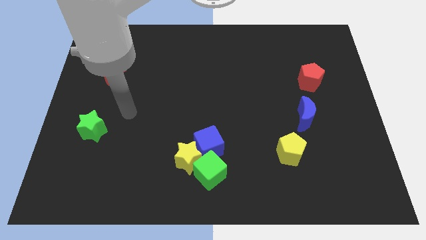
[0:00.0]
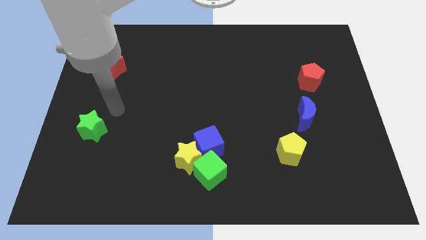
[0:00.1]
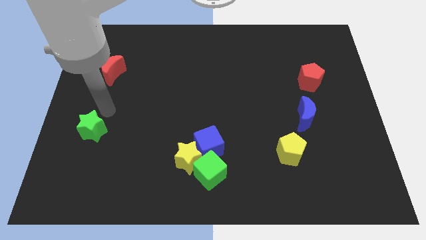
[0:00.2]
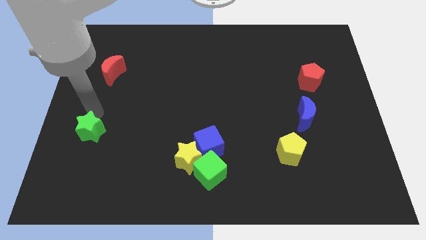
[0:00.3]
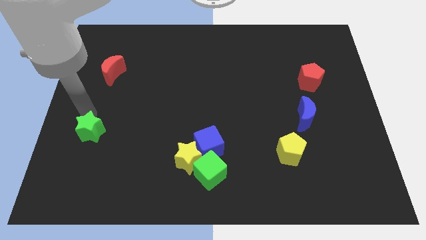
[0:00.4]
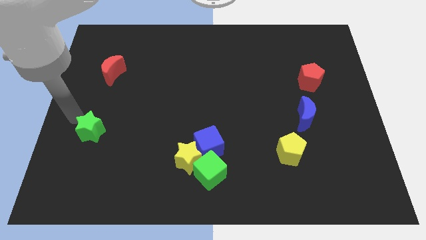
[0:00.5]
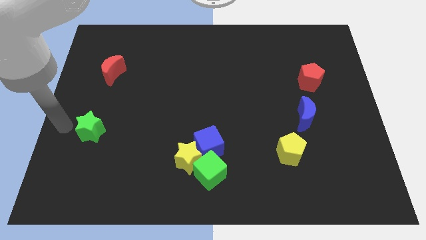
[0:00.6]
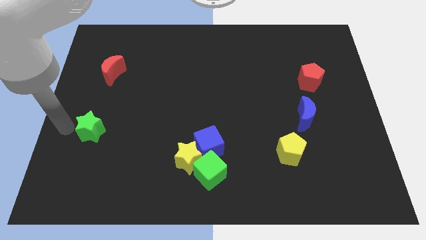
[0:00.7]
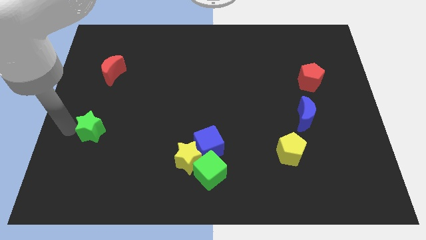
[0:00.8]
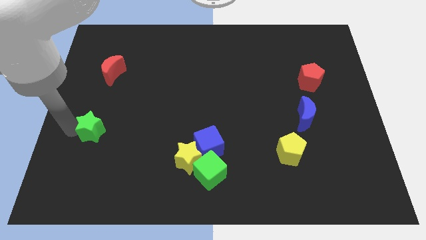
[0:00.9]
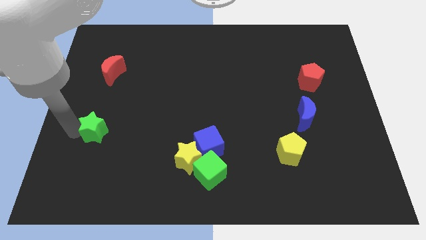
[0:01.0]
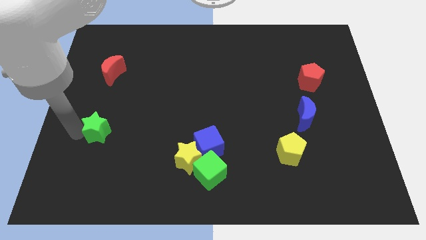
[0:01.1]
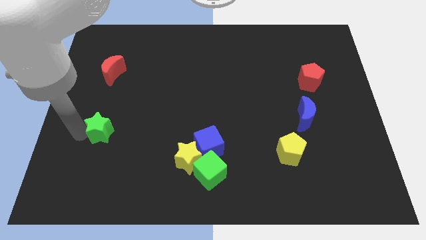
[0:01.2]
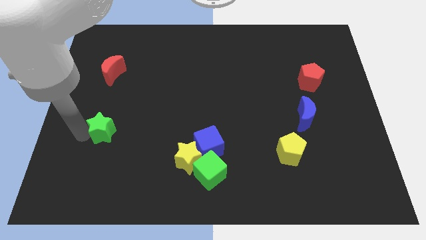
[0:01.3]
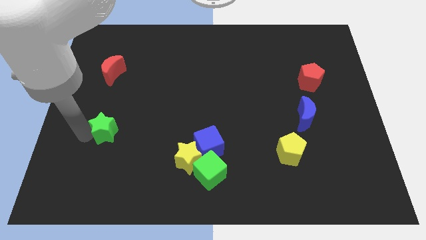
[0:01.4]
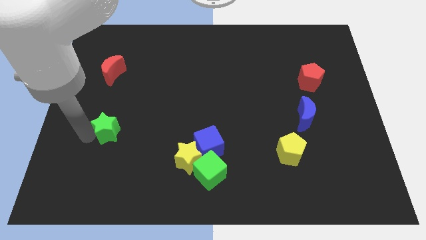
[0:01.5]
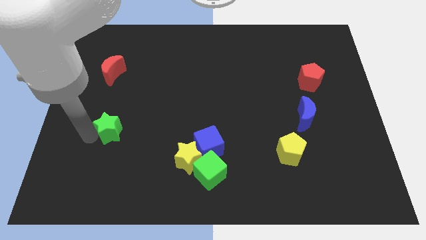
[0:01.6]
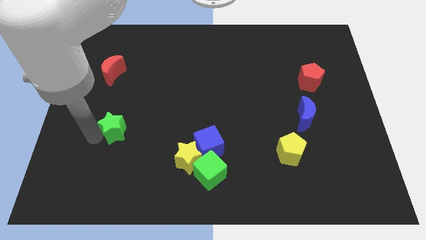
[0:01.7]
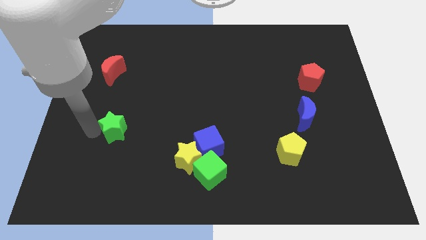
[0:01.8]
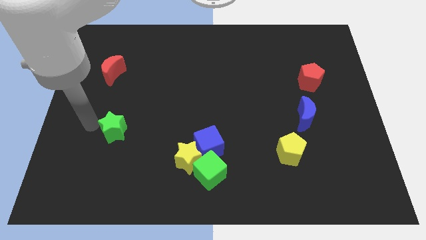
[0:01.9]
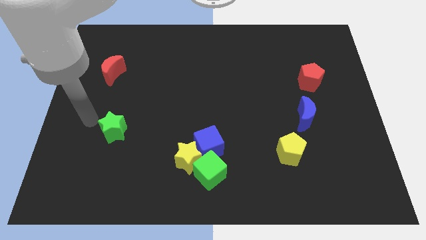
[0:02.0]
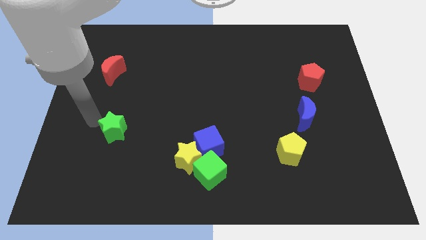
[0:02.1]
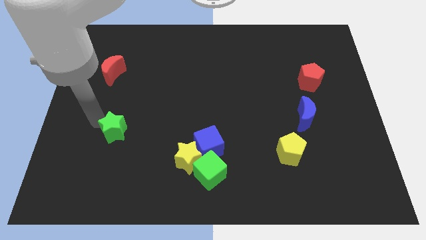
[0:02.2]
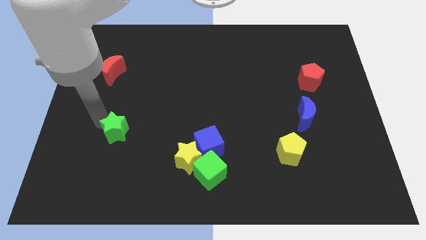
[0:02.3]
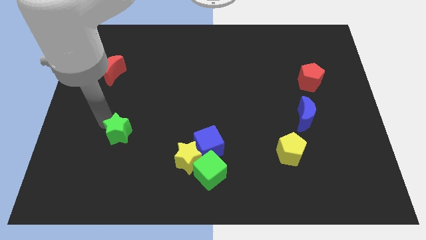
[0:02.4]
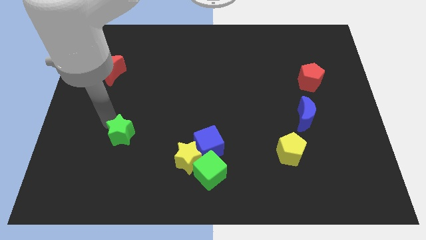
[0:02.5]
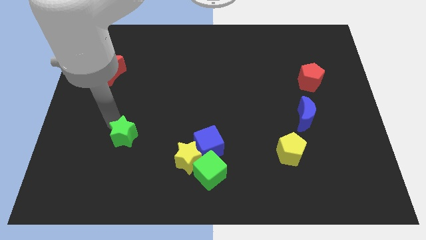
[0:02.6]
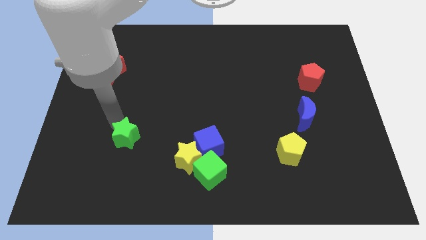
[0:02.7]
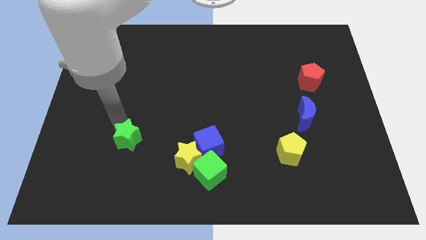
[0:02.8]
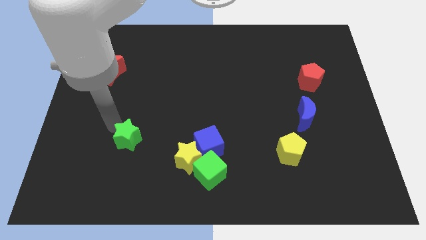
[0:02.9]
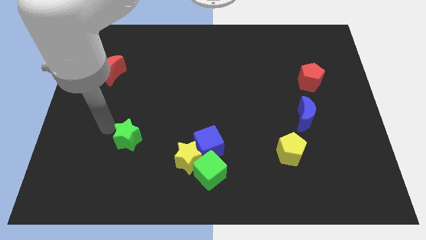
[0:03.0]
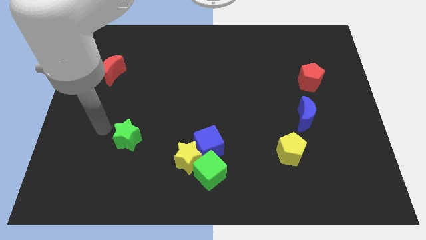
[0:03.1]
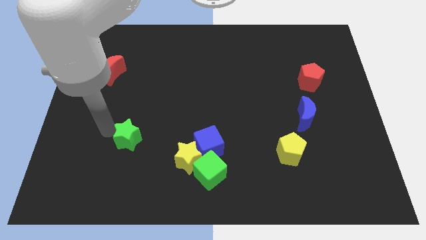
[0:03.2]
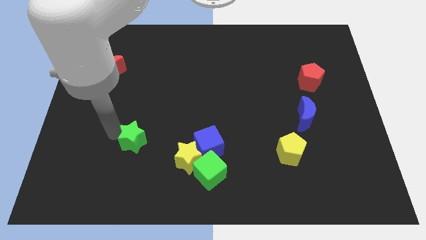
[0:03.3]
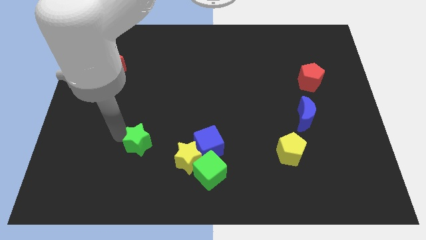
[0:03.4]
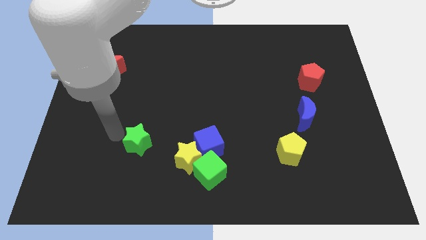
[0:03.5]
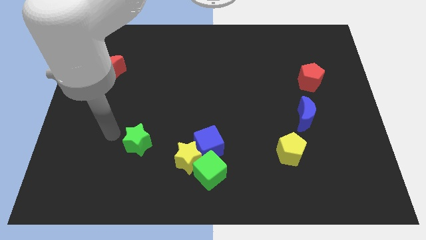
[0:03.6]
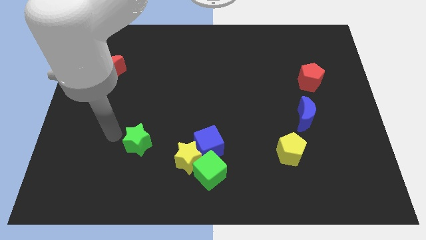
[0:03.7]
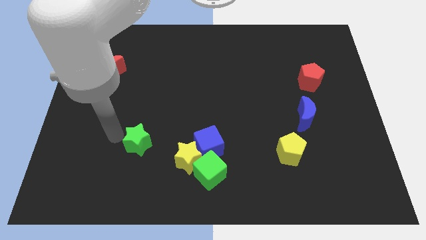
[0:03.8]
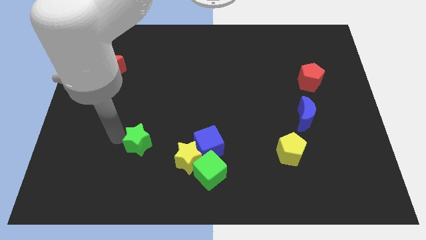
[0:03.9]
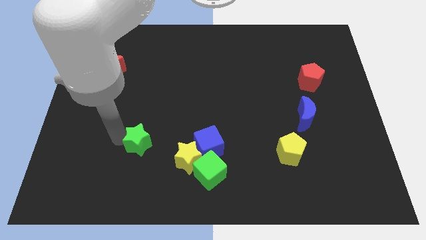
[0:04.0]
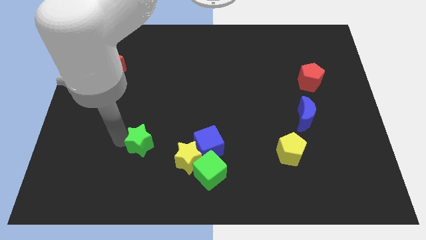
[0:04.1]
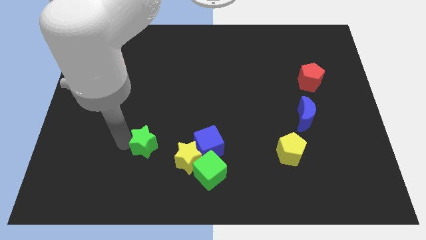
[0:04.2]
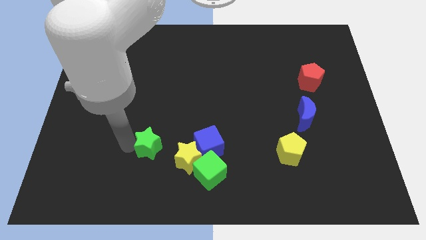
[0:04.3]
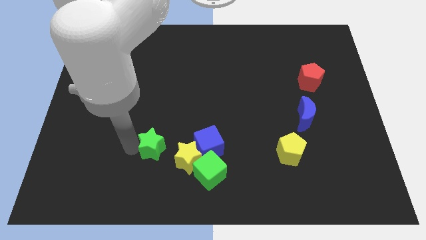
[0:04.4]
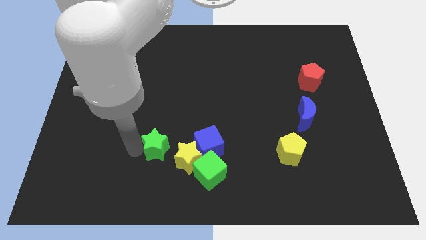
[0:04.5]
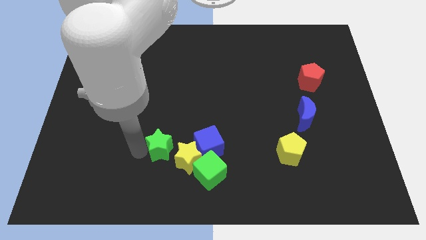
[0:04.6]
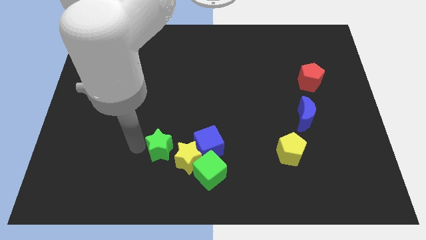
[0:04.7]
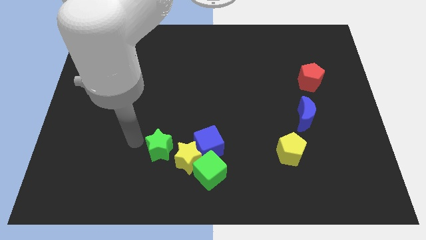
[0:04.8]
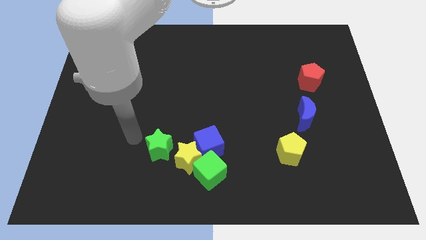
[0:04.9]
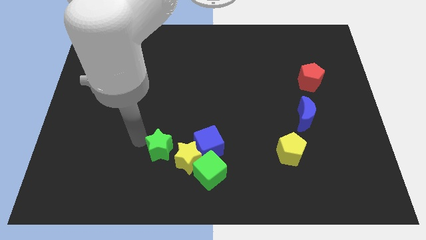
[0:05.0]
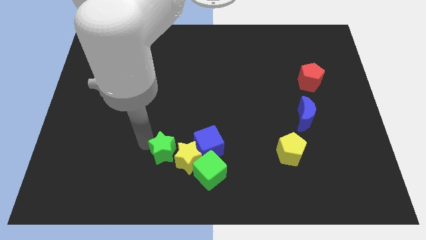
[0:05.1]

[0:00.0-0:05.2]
slide the green star towards the yellow star

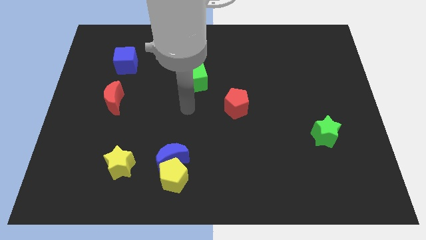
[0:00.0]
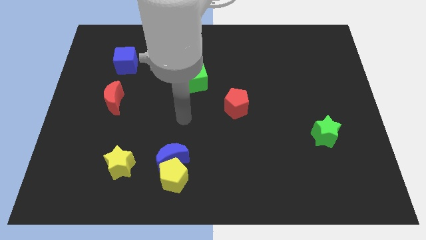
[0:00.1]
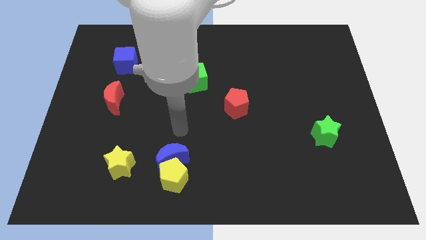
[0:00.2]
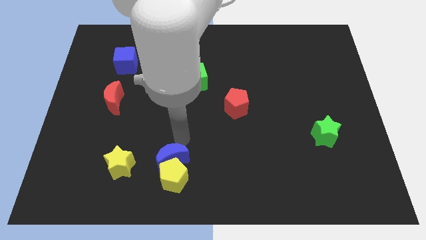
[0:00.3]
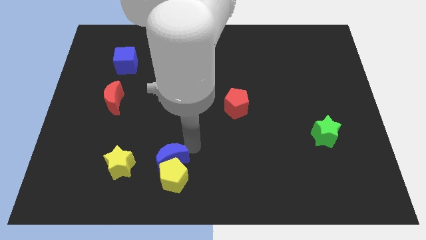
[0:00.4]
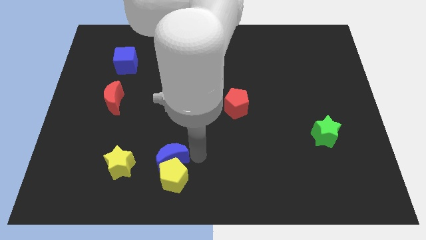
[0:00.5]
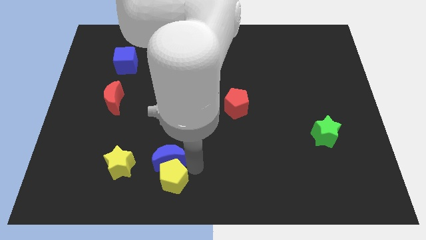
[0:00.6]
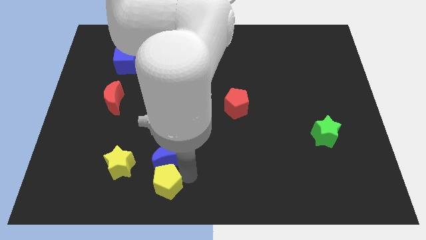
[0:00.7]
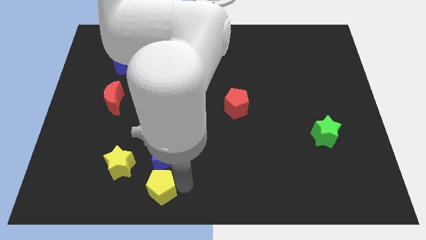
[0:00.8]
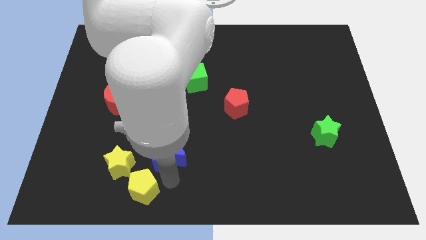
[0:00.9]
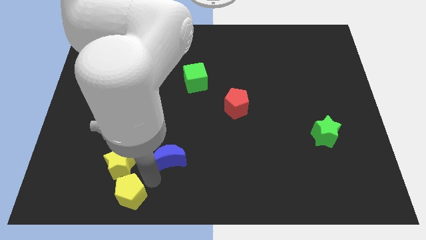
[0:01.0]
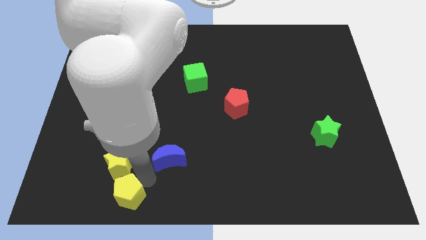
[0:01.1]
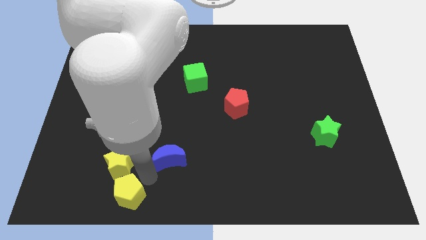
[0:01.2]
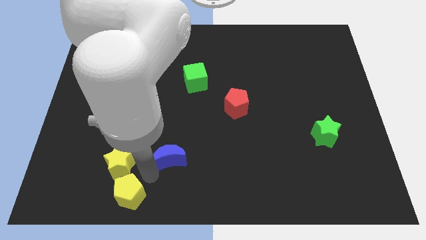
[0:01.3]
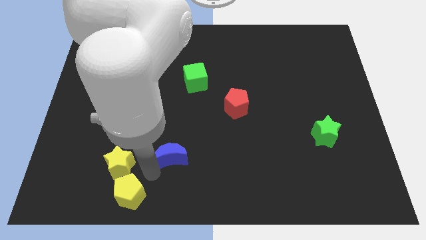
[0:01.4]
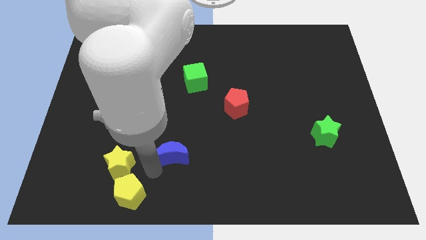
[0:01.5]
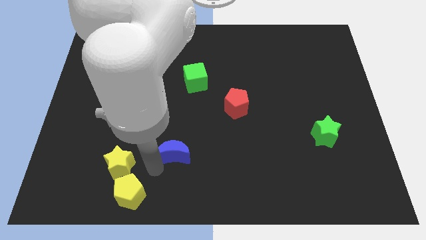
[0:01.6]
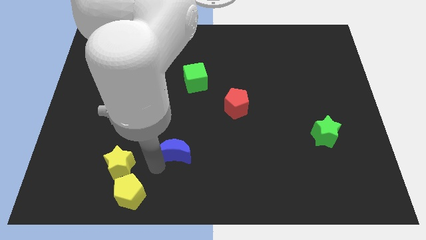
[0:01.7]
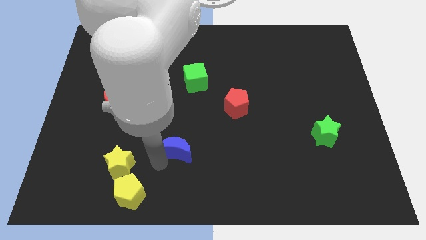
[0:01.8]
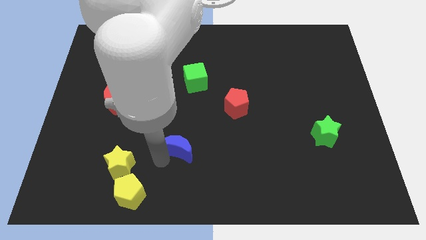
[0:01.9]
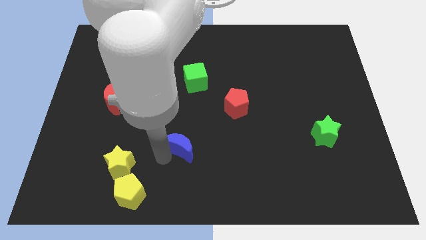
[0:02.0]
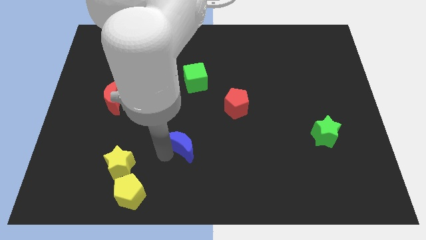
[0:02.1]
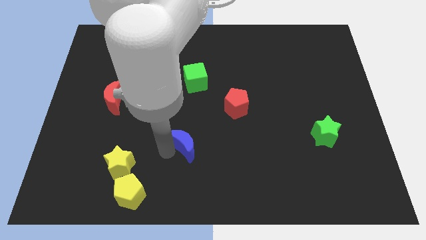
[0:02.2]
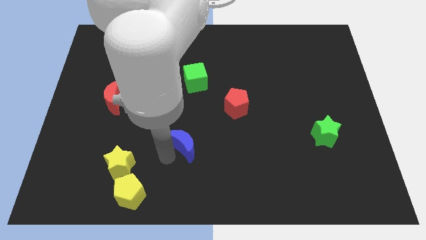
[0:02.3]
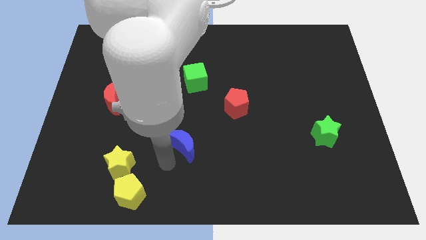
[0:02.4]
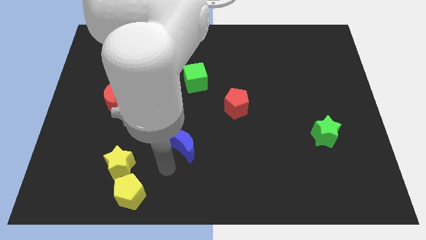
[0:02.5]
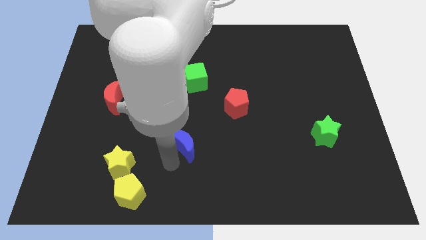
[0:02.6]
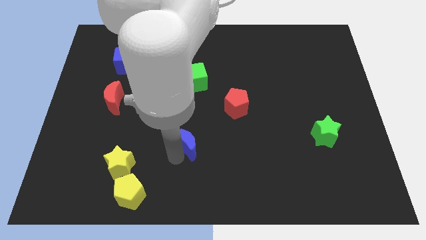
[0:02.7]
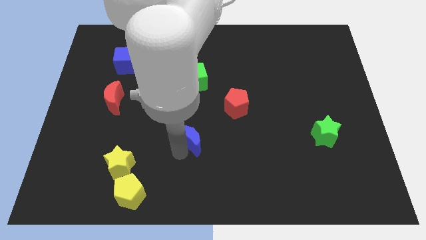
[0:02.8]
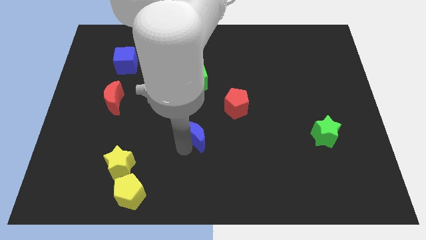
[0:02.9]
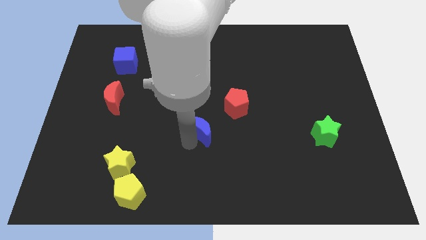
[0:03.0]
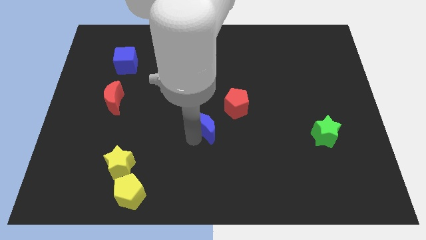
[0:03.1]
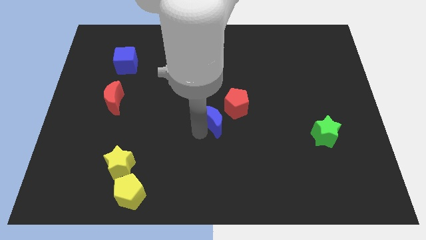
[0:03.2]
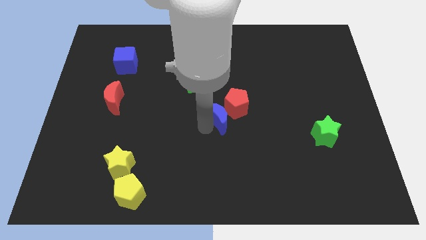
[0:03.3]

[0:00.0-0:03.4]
push the blue moon to the red pentagon
